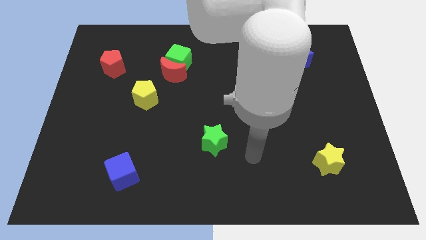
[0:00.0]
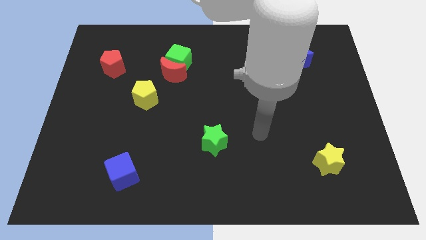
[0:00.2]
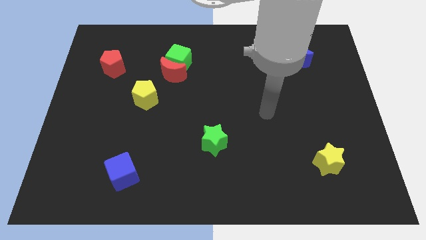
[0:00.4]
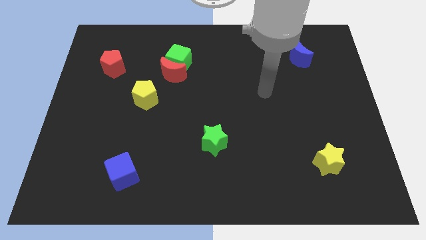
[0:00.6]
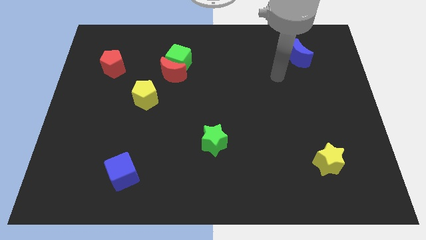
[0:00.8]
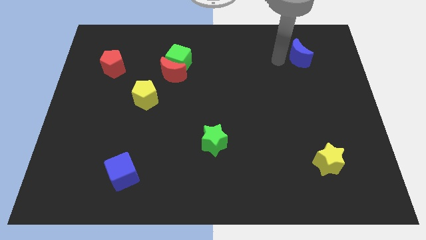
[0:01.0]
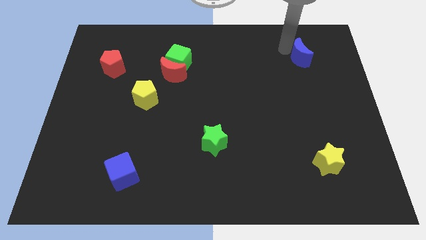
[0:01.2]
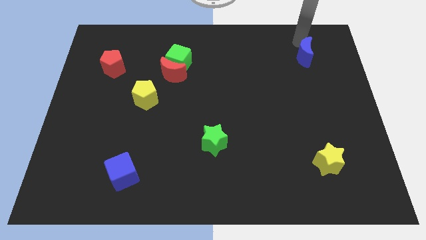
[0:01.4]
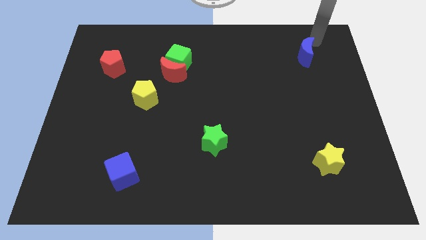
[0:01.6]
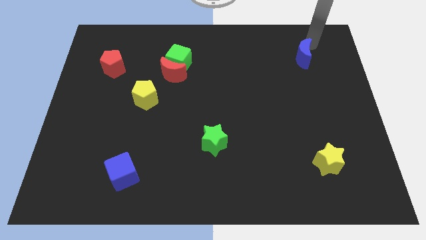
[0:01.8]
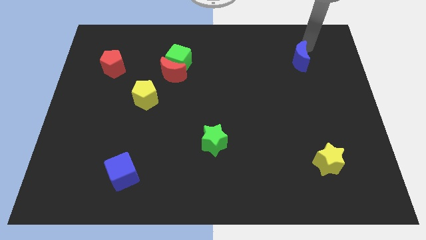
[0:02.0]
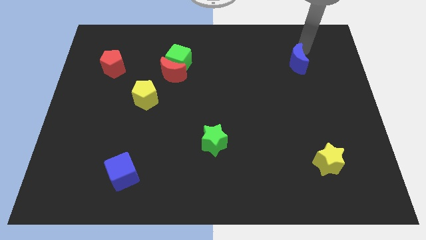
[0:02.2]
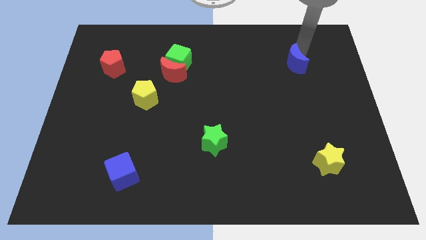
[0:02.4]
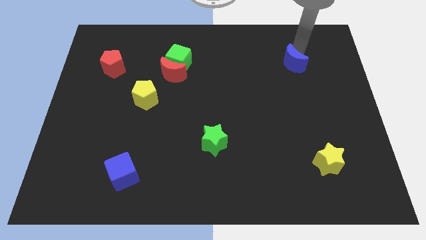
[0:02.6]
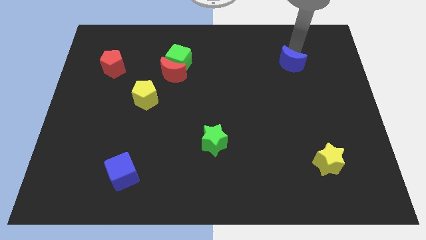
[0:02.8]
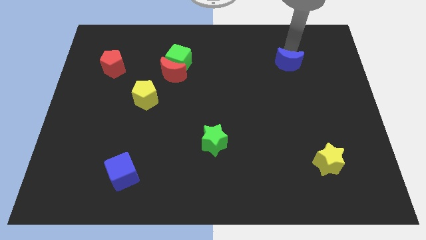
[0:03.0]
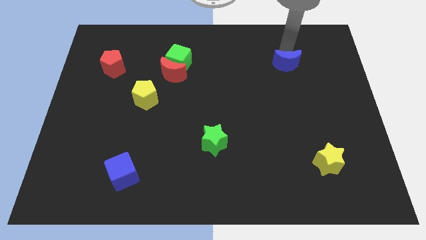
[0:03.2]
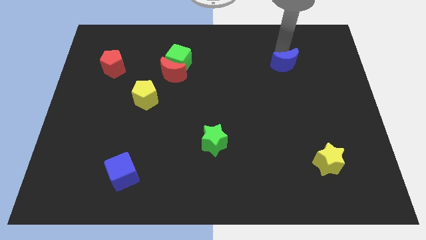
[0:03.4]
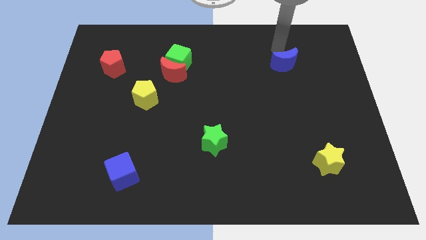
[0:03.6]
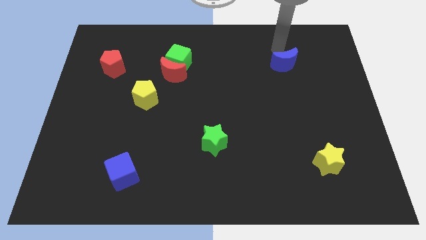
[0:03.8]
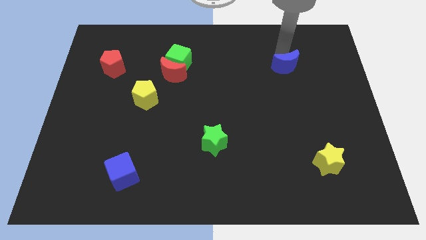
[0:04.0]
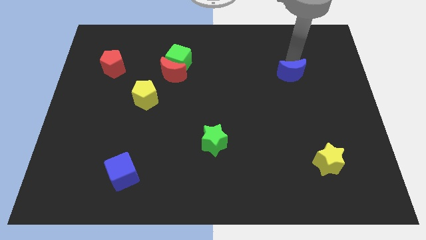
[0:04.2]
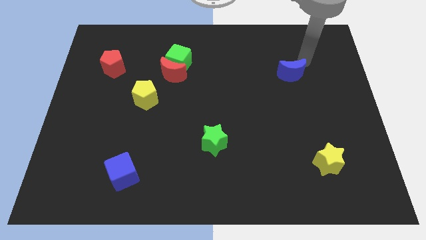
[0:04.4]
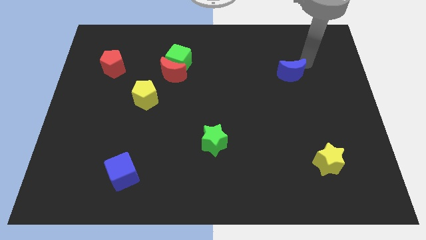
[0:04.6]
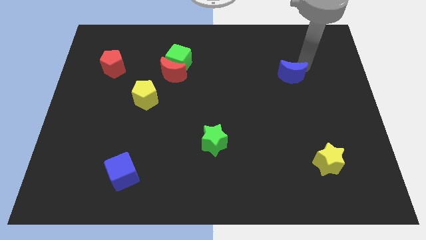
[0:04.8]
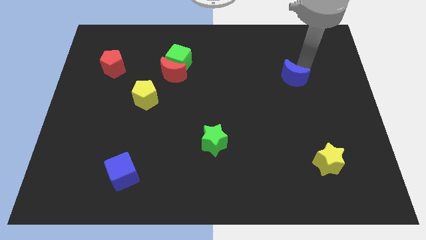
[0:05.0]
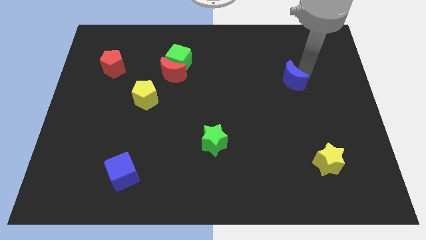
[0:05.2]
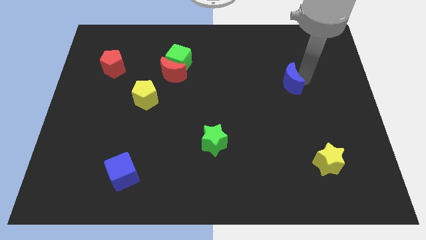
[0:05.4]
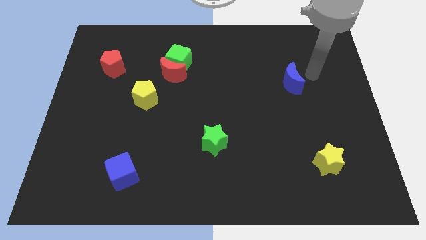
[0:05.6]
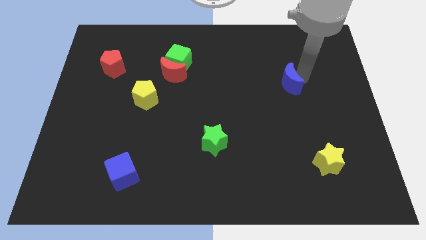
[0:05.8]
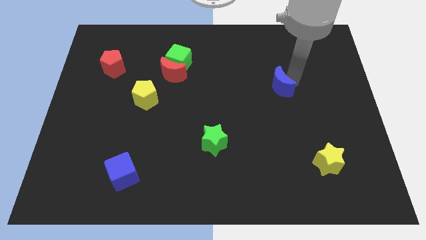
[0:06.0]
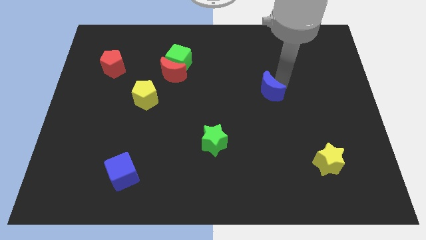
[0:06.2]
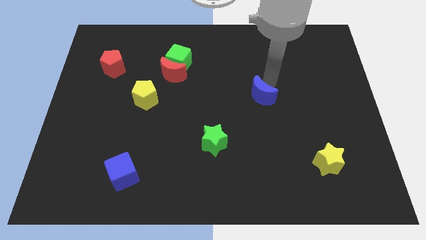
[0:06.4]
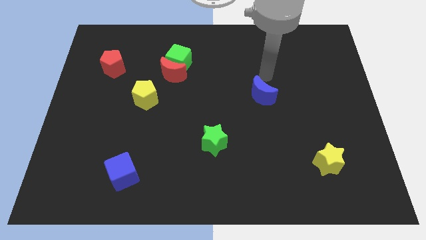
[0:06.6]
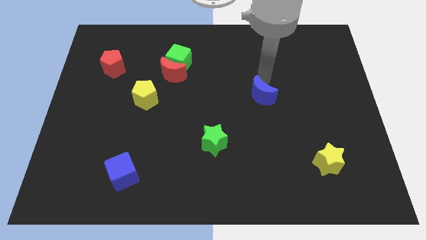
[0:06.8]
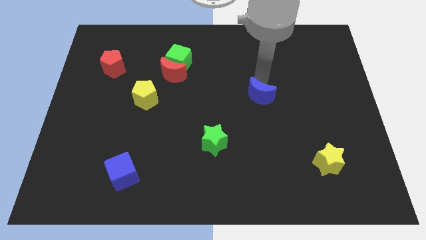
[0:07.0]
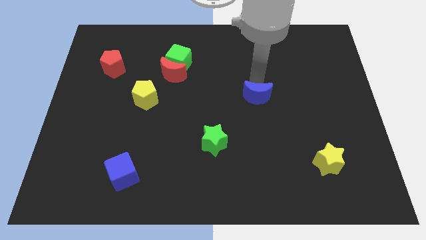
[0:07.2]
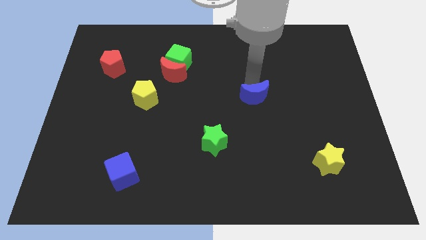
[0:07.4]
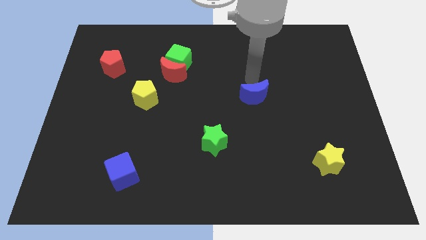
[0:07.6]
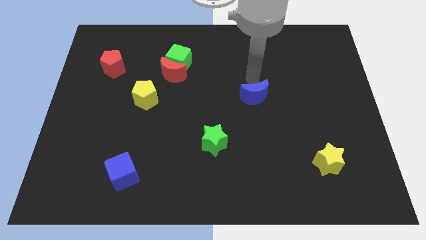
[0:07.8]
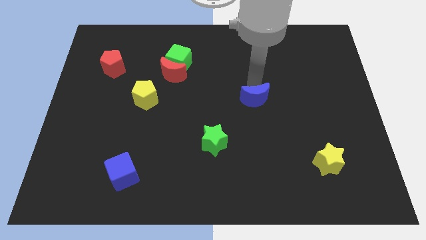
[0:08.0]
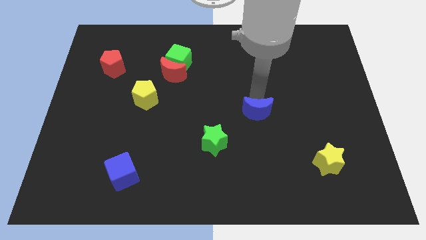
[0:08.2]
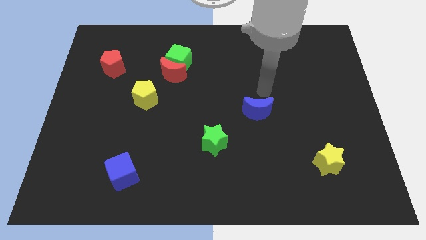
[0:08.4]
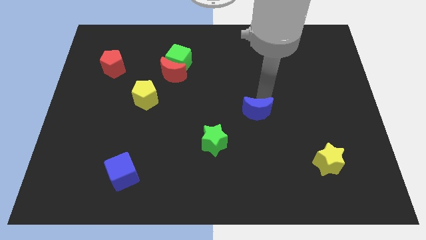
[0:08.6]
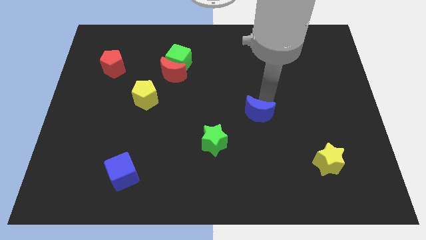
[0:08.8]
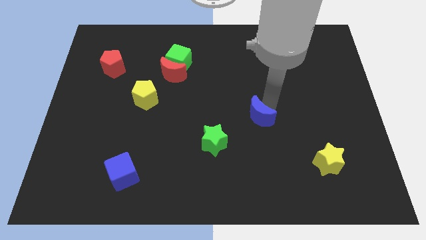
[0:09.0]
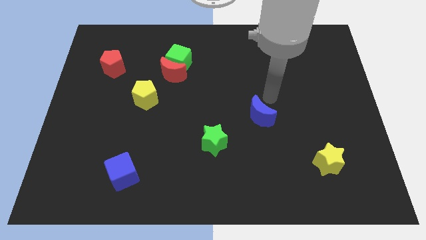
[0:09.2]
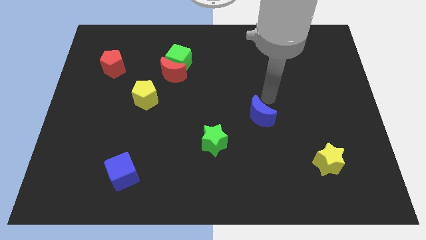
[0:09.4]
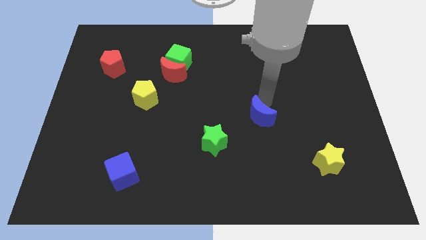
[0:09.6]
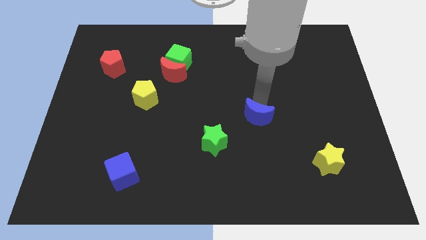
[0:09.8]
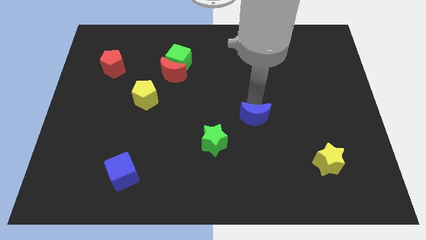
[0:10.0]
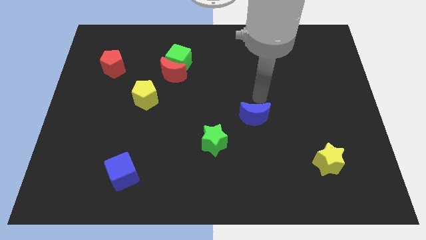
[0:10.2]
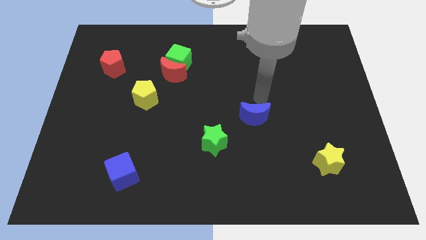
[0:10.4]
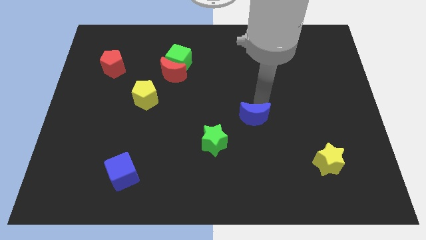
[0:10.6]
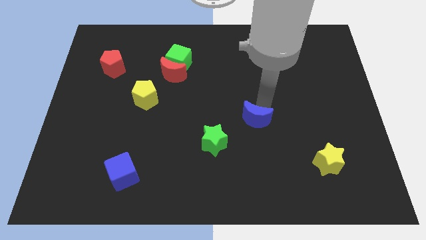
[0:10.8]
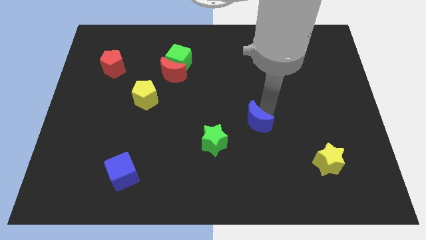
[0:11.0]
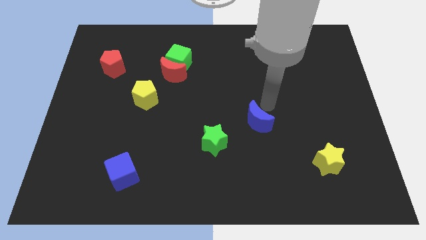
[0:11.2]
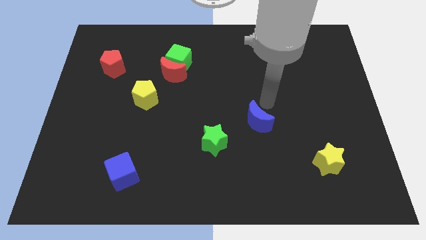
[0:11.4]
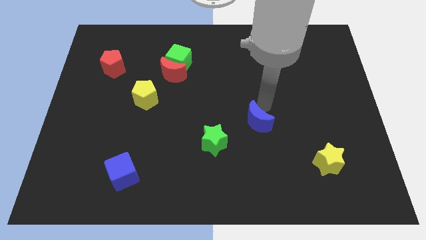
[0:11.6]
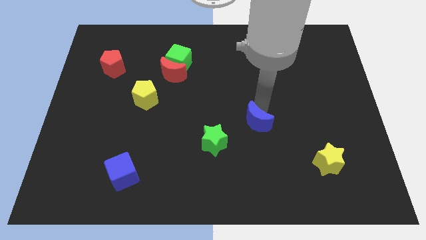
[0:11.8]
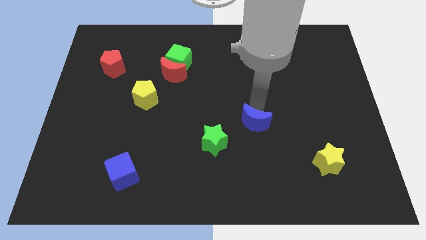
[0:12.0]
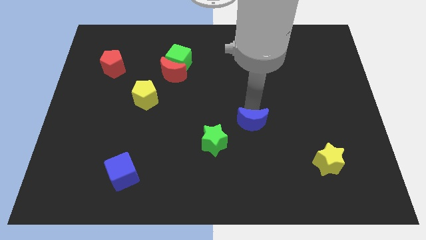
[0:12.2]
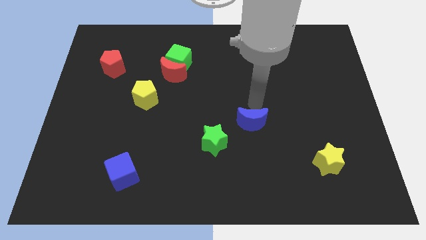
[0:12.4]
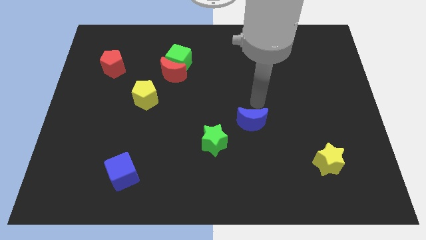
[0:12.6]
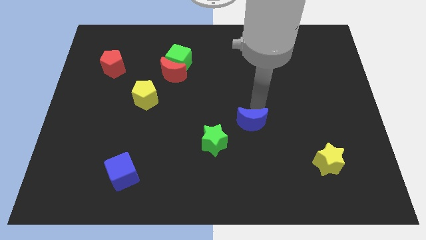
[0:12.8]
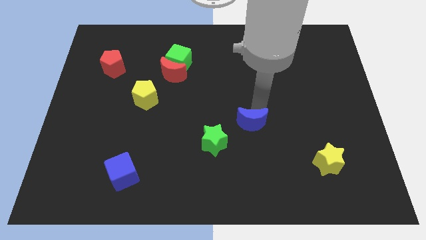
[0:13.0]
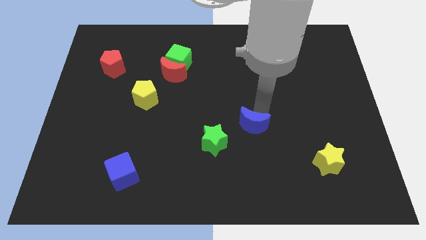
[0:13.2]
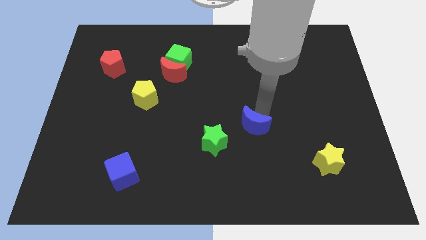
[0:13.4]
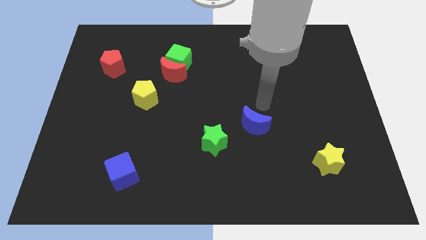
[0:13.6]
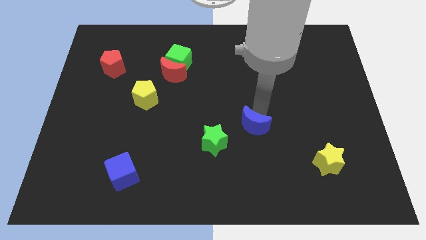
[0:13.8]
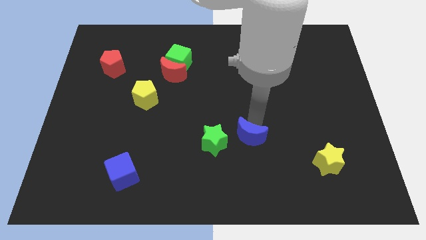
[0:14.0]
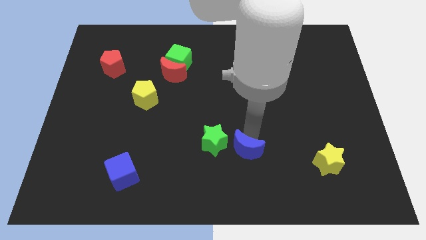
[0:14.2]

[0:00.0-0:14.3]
put the blue moon to the bottom right side of the green star

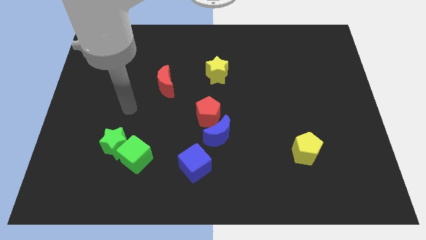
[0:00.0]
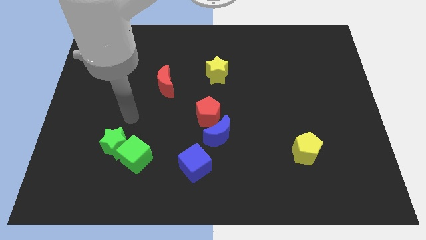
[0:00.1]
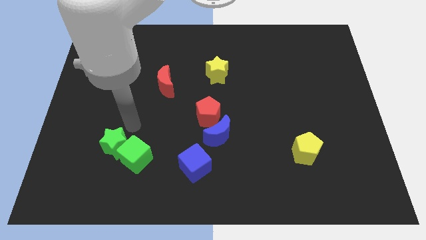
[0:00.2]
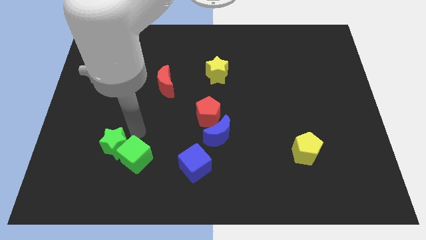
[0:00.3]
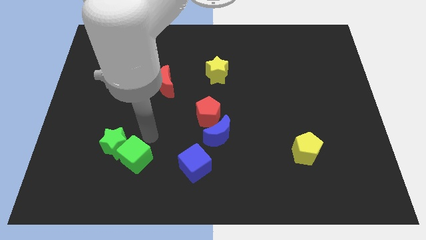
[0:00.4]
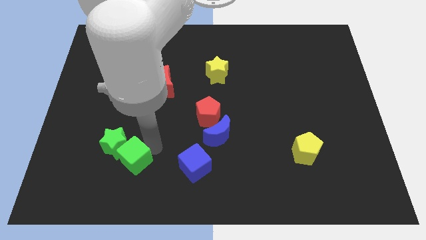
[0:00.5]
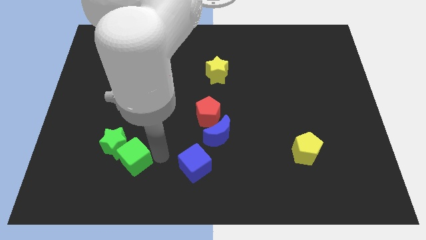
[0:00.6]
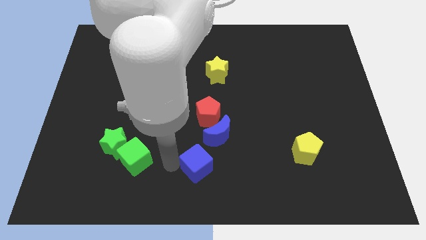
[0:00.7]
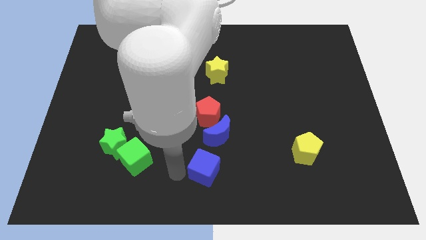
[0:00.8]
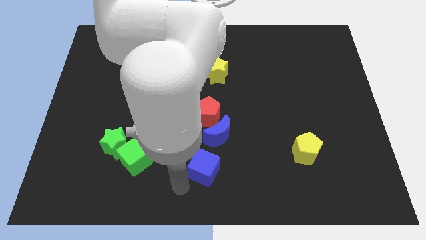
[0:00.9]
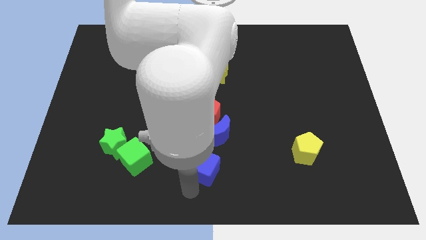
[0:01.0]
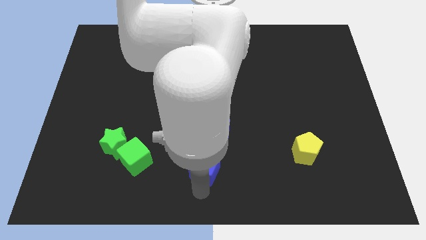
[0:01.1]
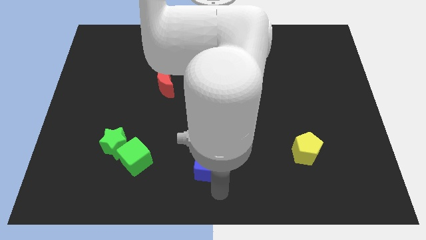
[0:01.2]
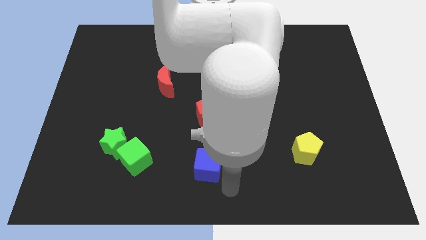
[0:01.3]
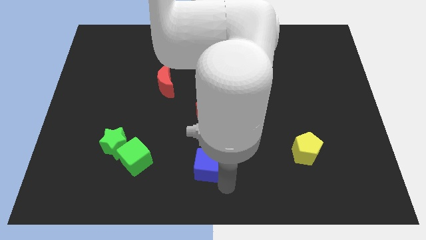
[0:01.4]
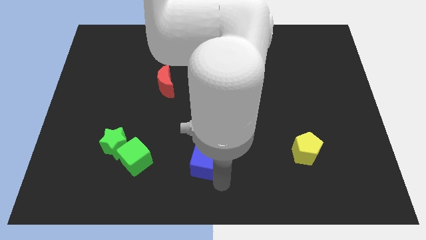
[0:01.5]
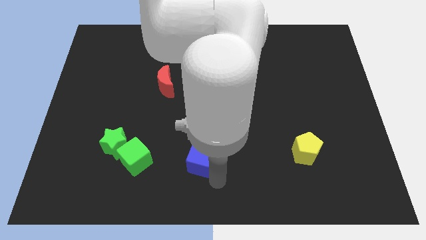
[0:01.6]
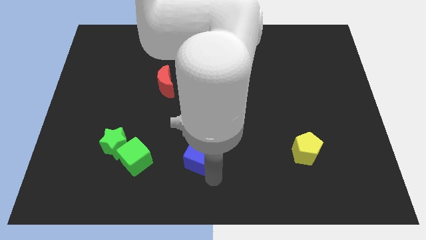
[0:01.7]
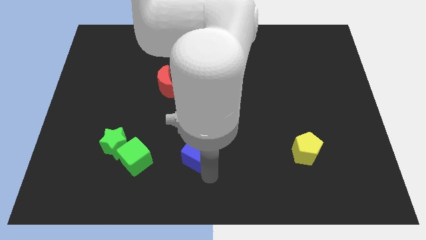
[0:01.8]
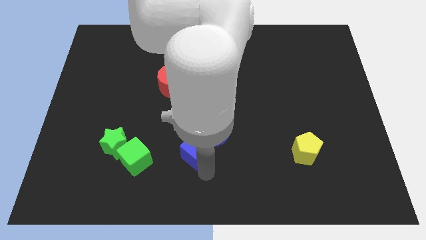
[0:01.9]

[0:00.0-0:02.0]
push the blue cube left of the blue moon
